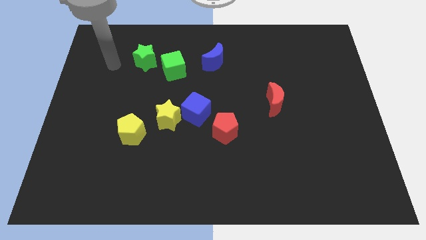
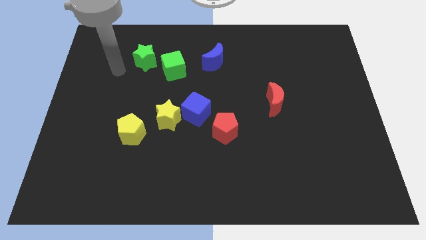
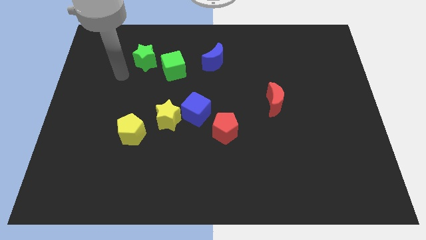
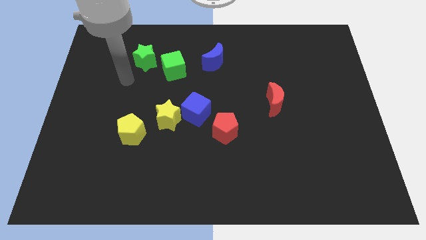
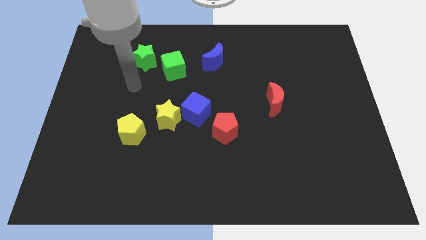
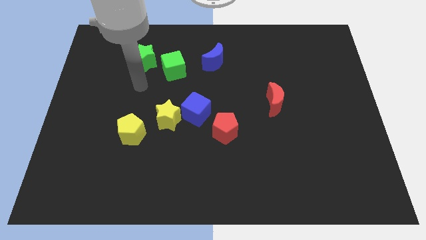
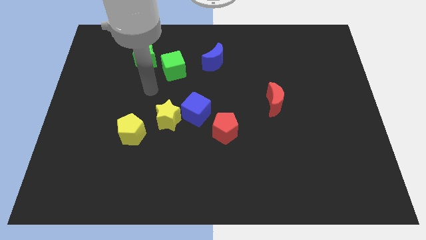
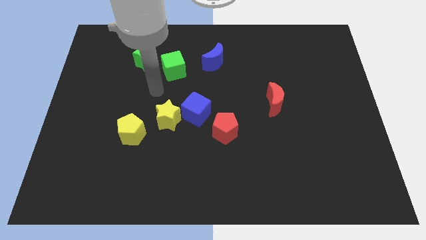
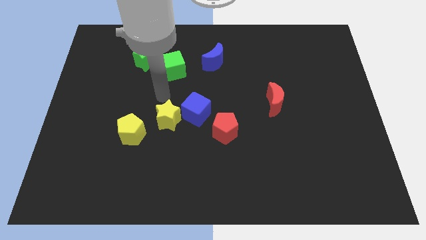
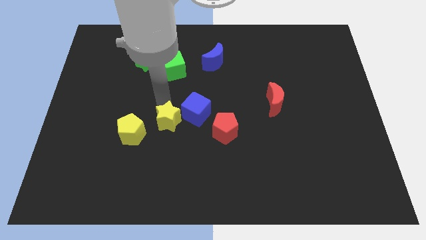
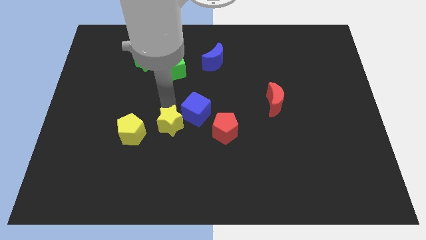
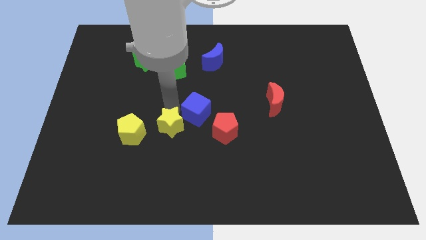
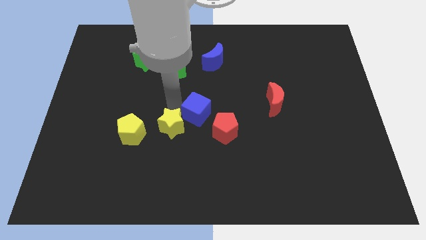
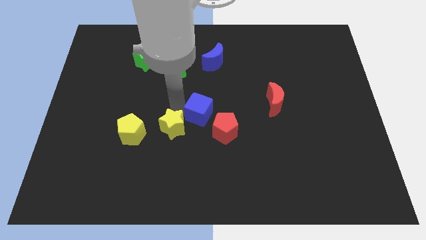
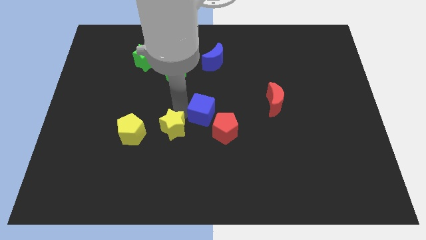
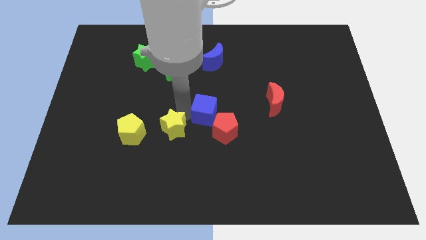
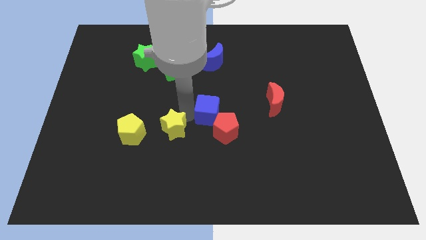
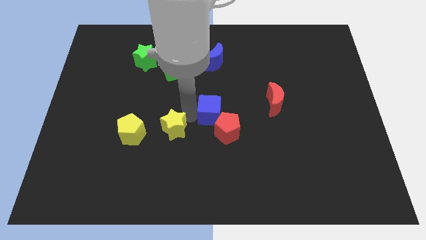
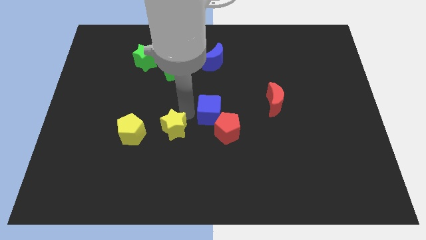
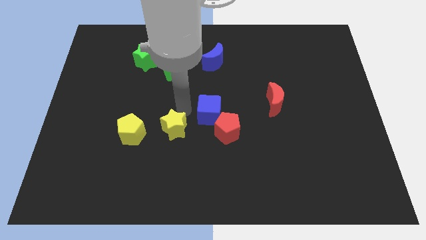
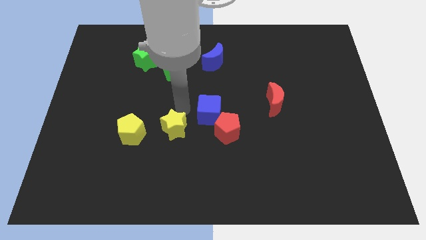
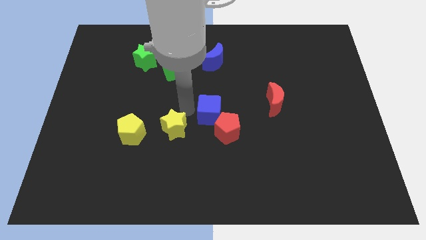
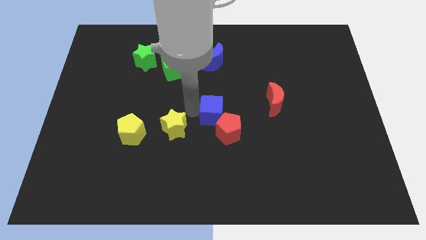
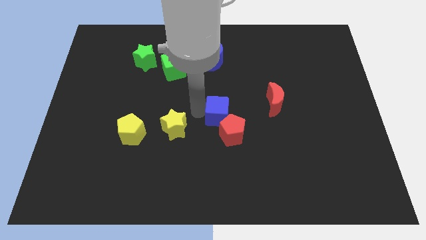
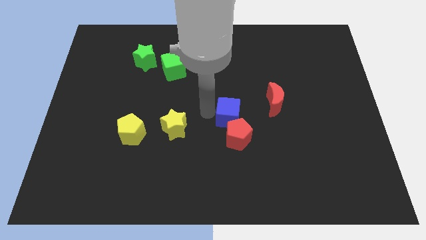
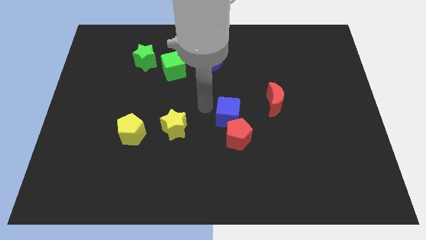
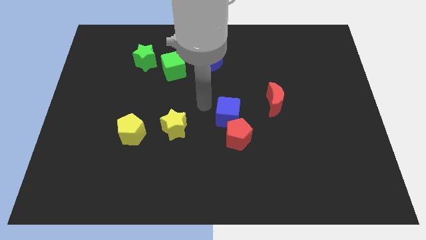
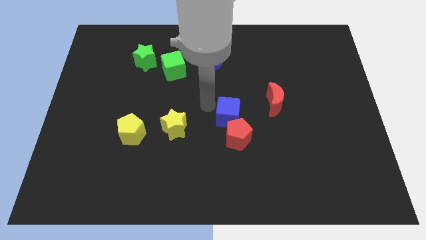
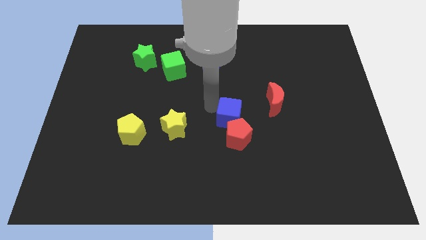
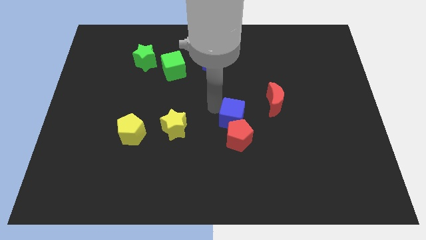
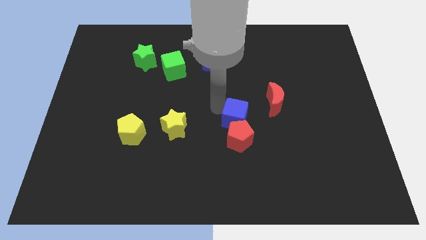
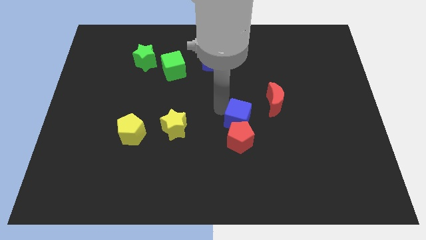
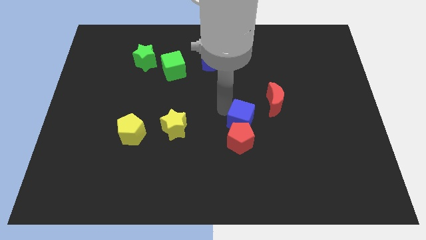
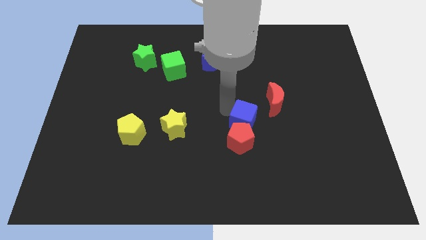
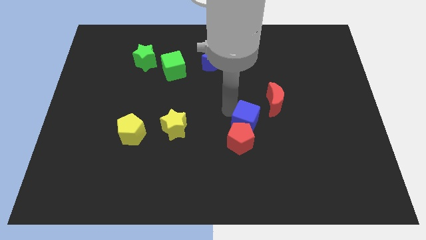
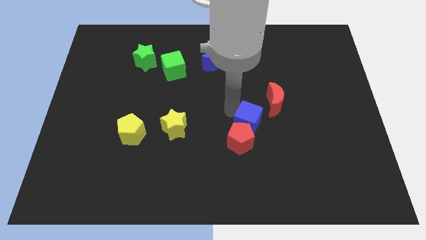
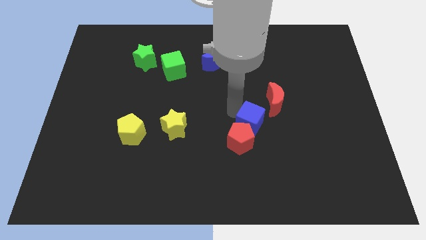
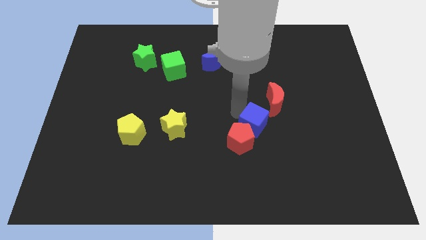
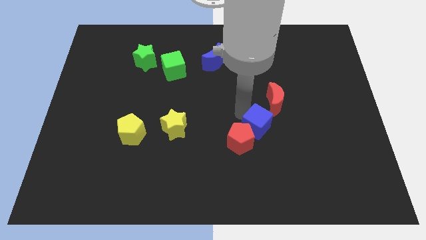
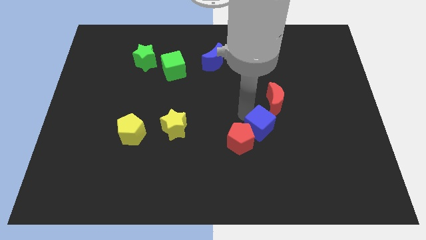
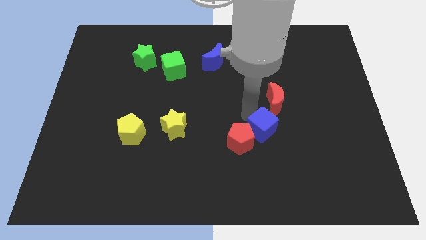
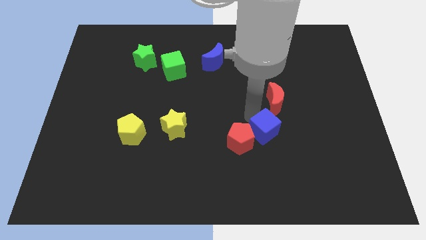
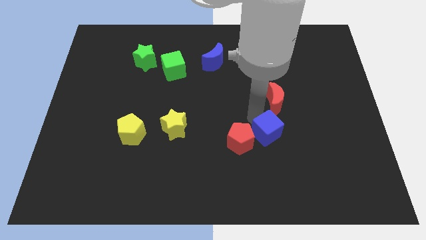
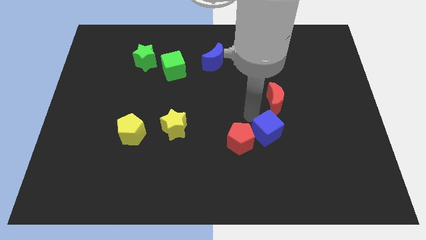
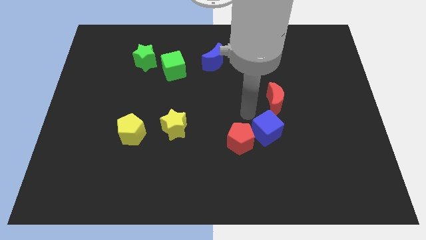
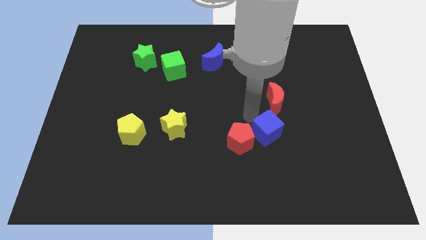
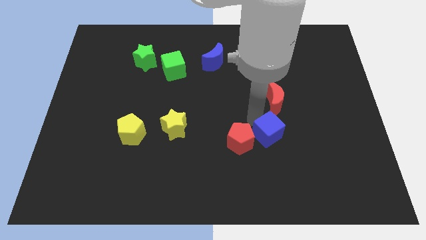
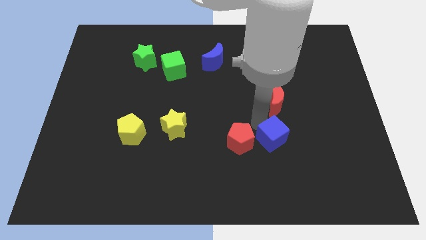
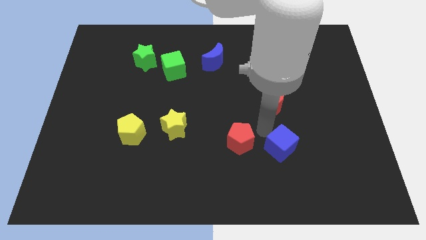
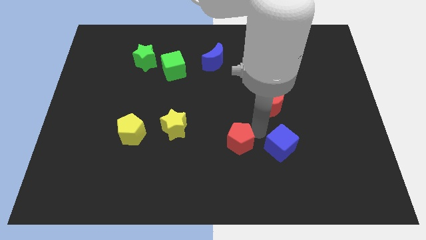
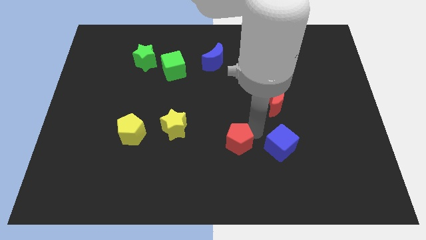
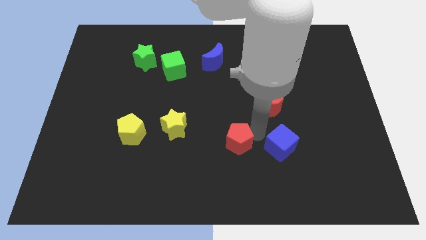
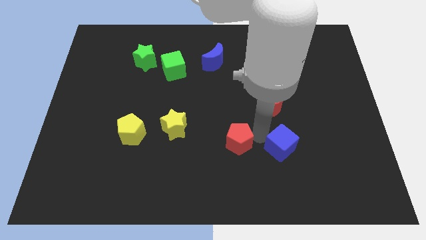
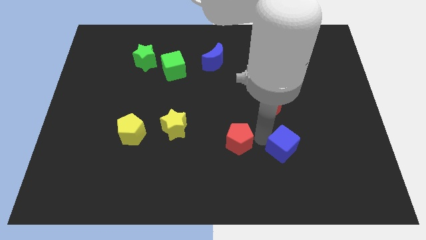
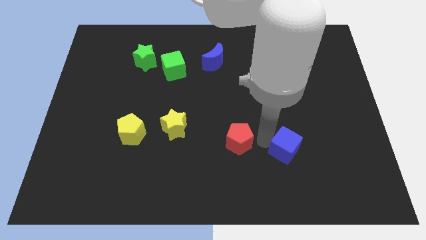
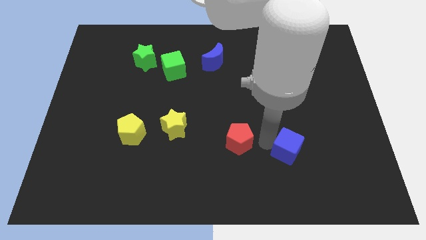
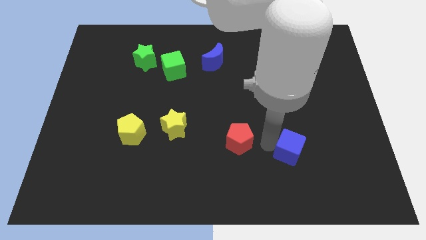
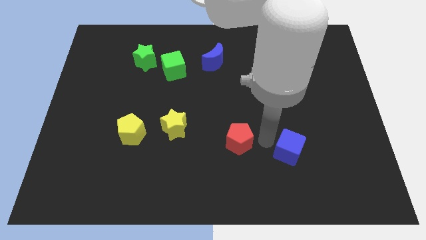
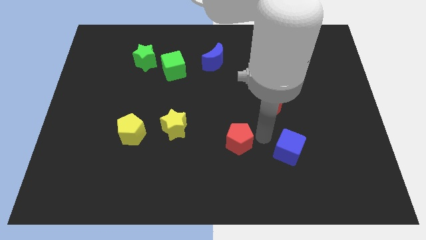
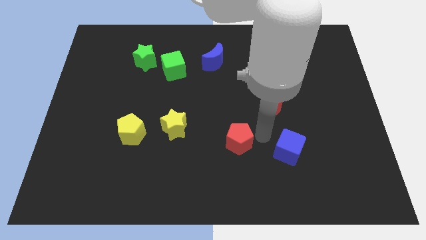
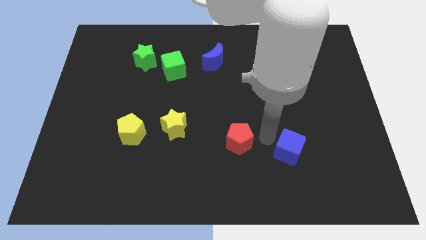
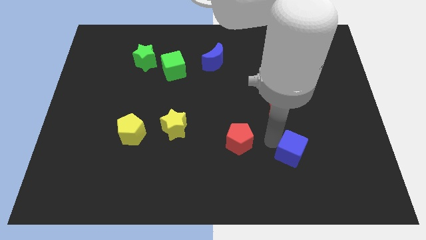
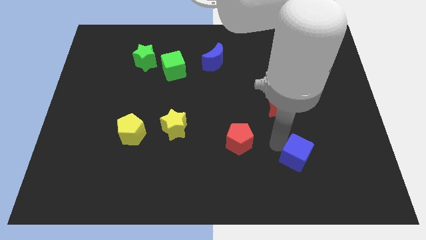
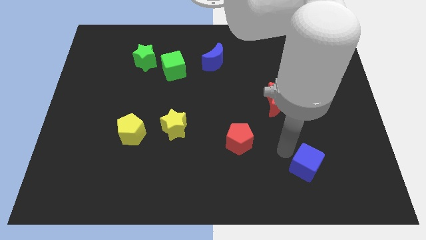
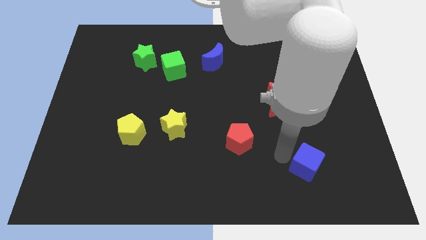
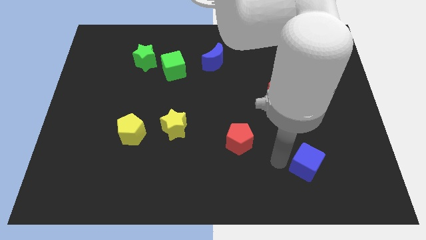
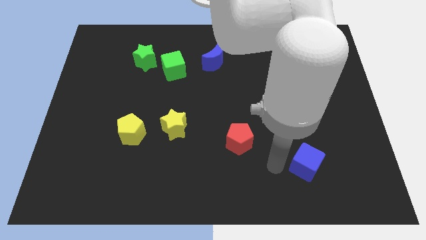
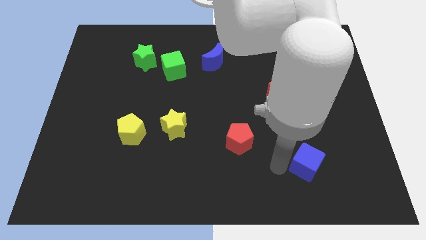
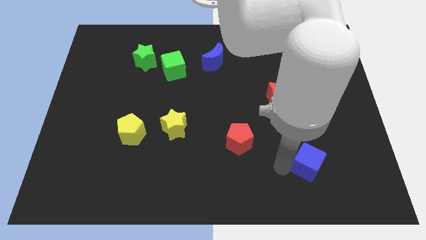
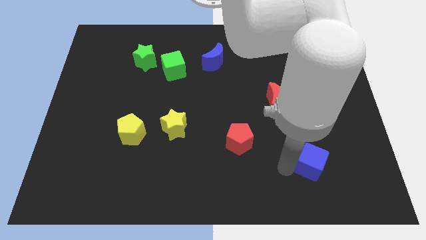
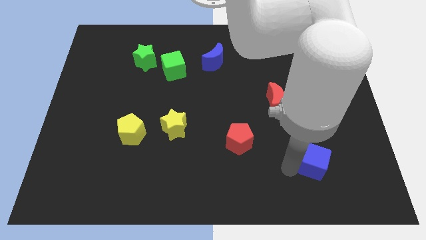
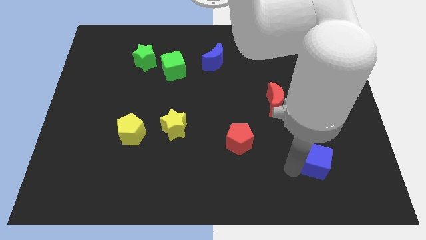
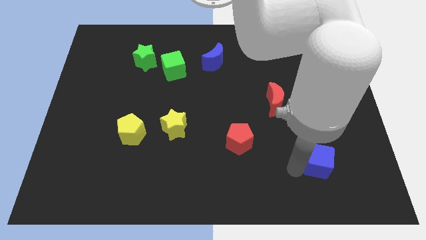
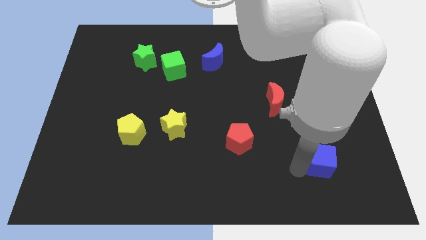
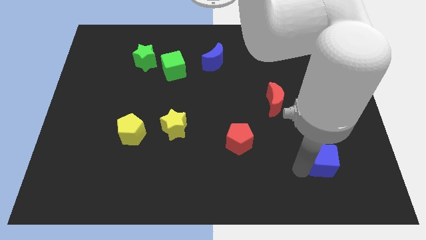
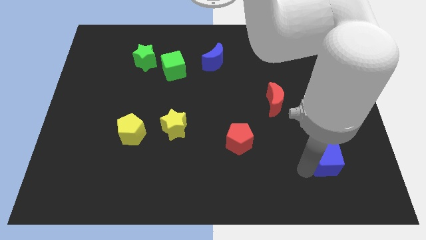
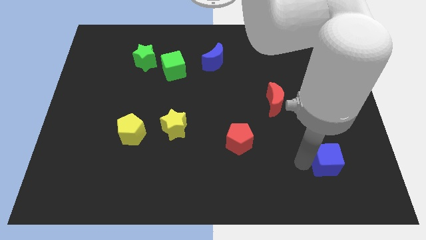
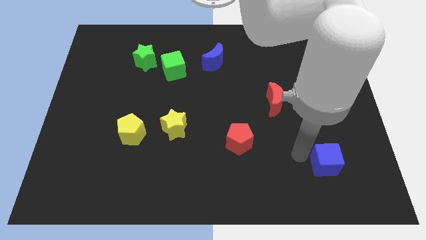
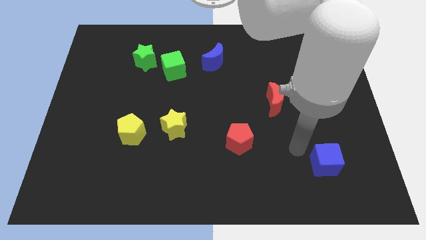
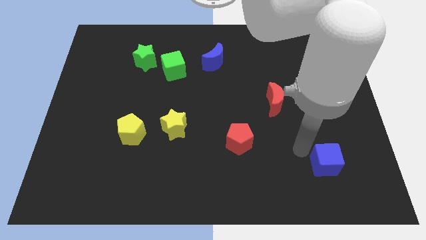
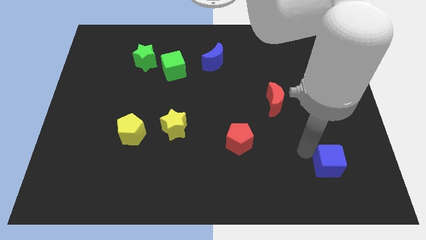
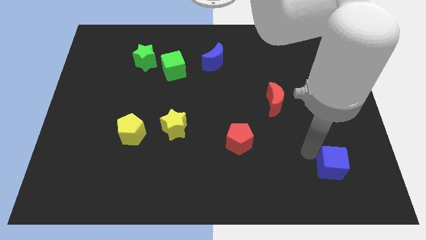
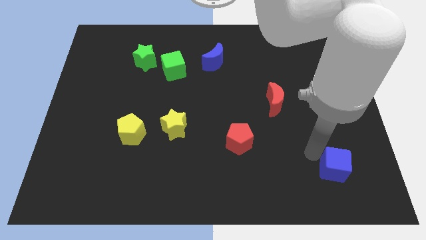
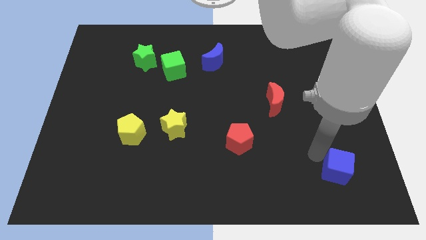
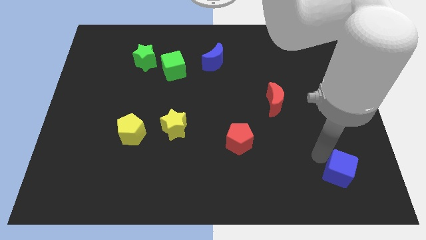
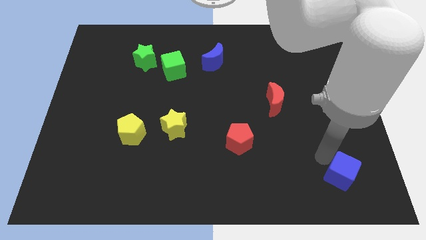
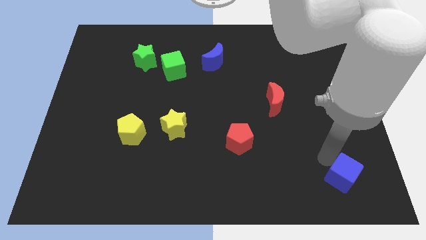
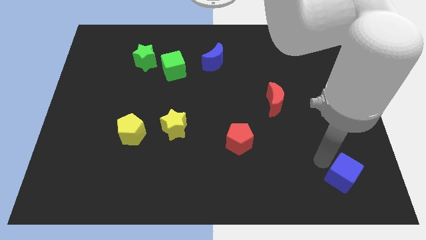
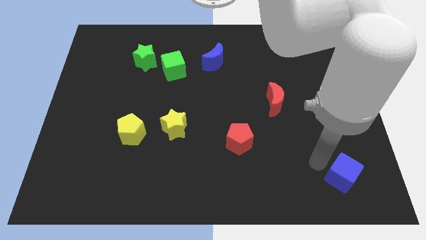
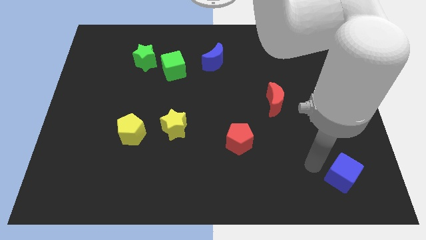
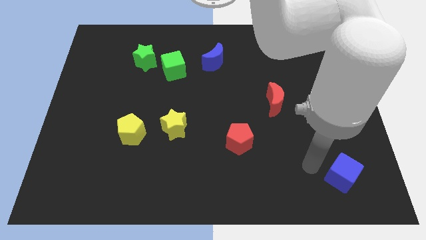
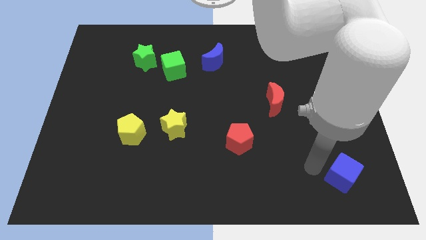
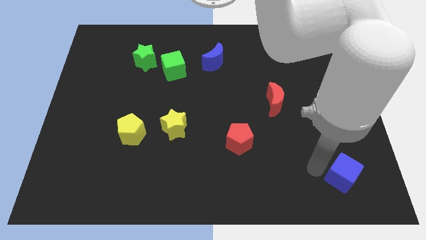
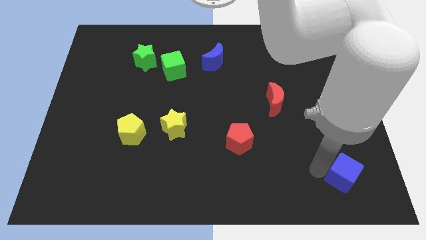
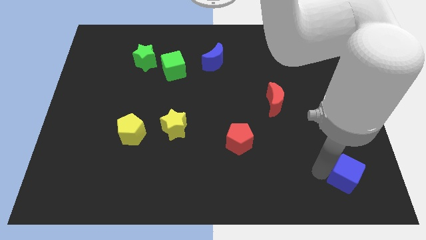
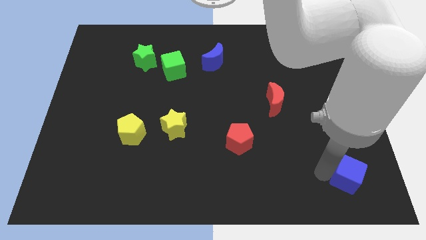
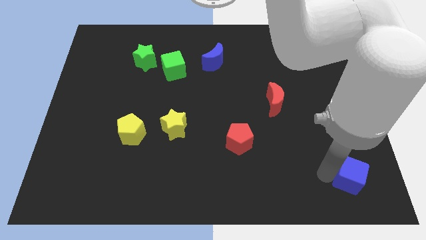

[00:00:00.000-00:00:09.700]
move the blue cube to the lower right corner
